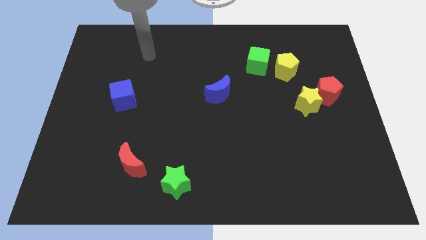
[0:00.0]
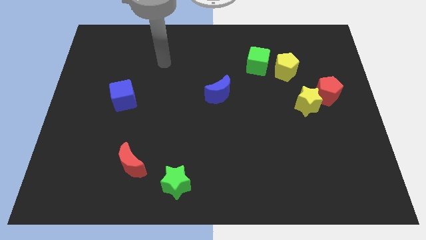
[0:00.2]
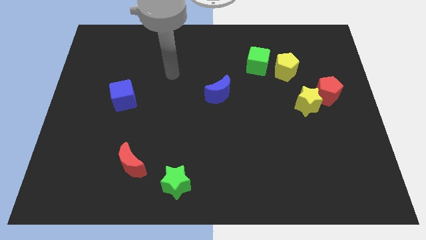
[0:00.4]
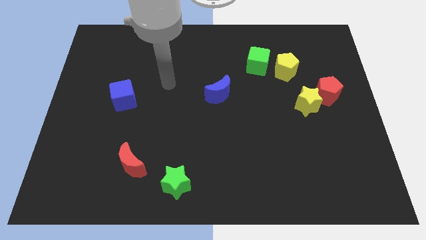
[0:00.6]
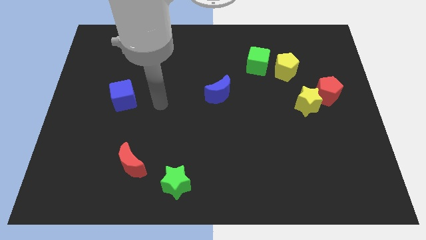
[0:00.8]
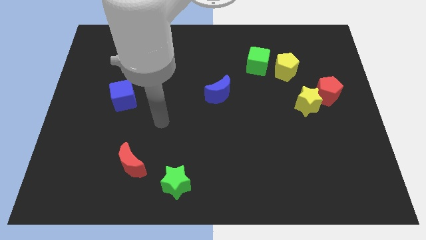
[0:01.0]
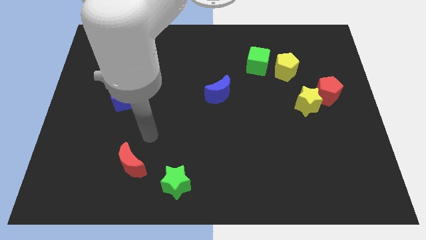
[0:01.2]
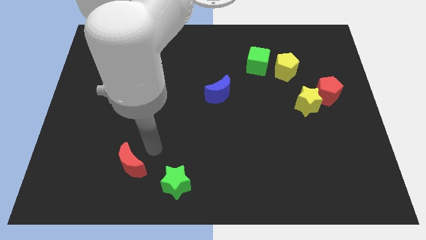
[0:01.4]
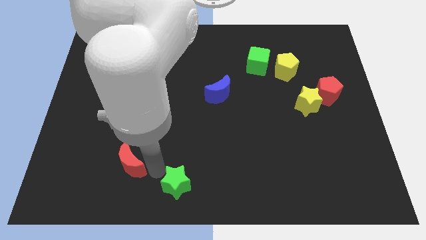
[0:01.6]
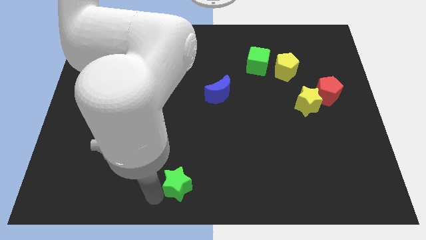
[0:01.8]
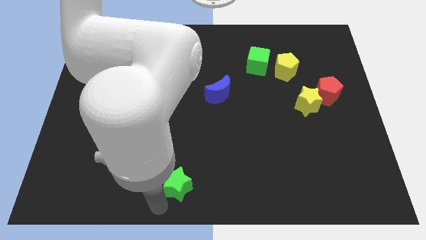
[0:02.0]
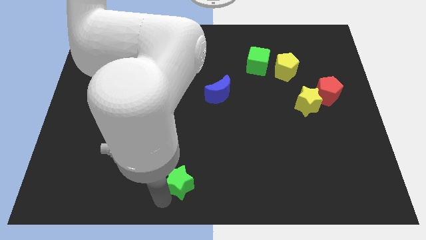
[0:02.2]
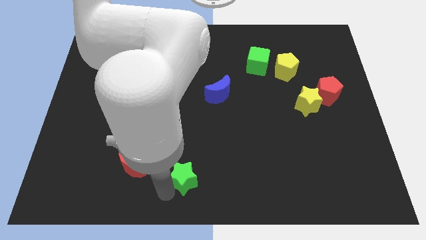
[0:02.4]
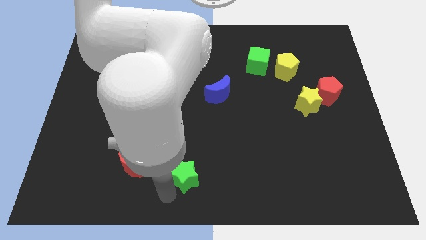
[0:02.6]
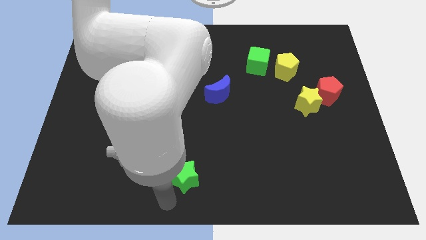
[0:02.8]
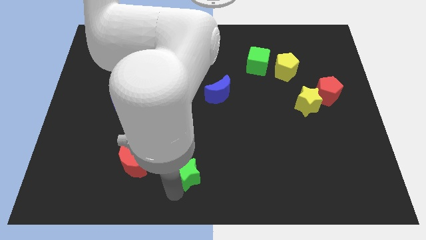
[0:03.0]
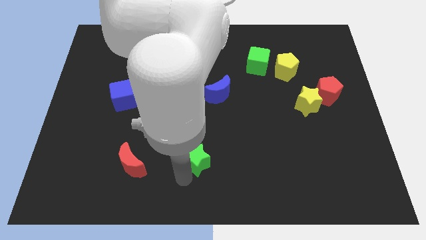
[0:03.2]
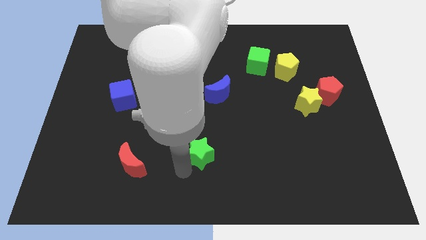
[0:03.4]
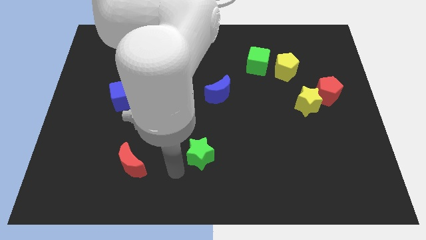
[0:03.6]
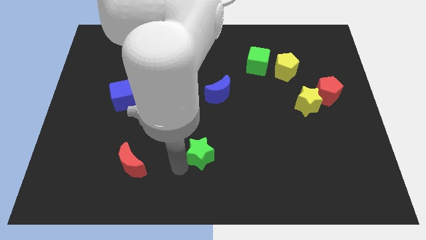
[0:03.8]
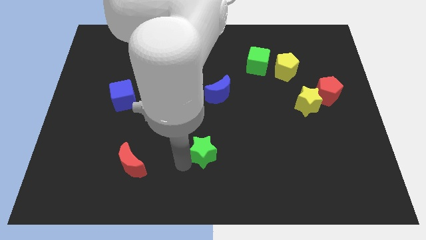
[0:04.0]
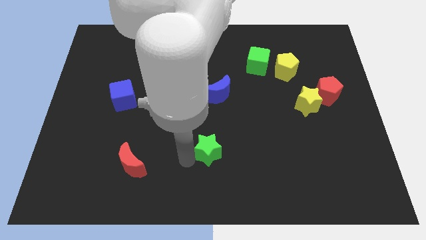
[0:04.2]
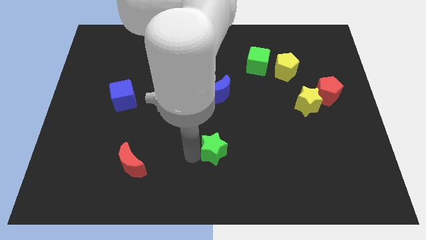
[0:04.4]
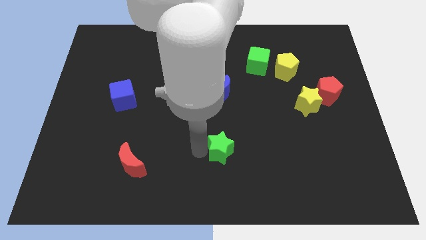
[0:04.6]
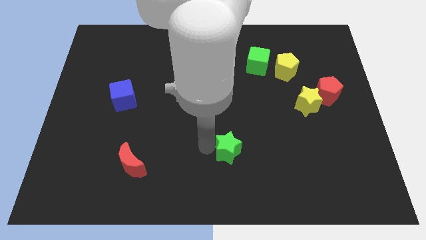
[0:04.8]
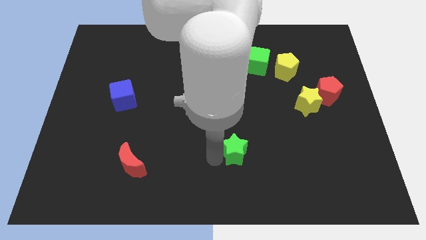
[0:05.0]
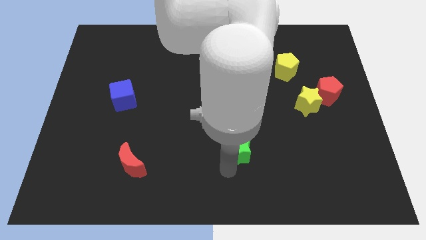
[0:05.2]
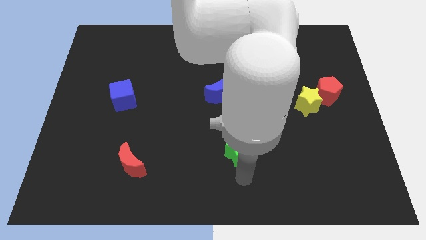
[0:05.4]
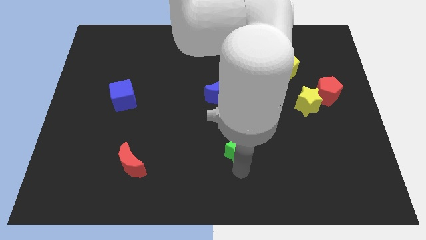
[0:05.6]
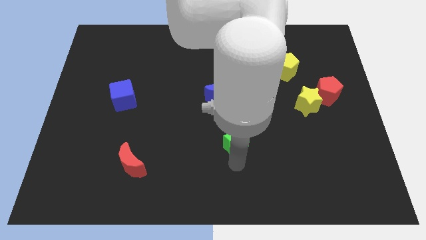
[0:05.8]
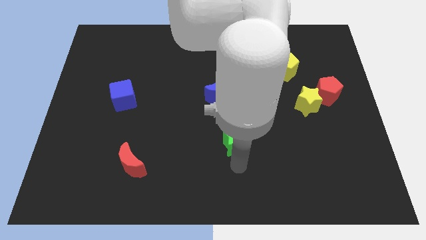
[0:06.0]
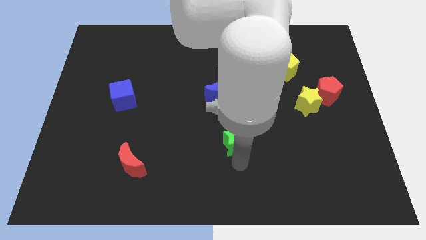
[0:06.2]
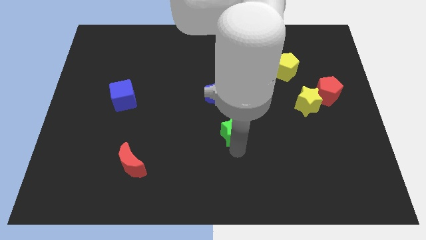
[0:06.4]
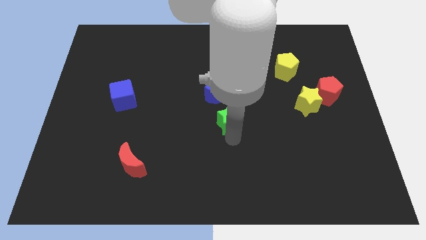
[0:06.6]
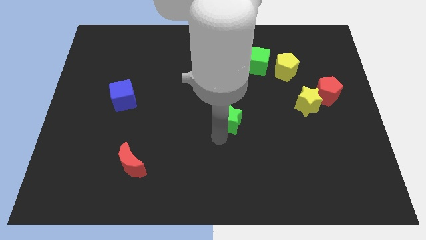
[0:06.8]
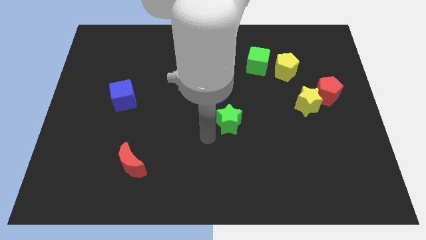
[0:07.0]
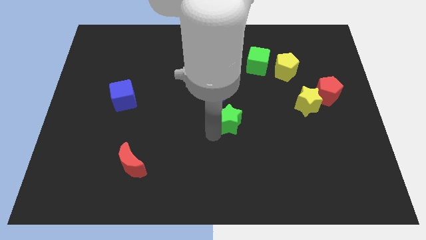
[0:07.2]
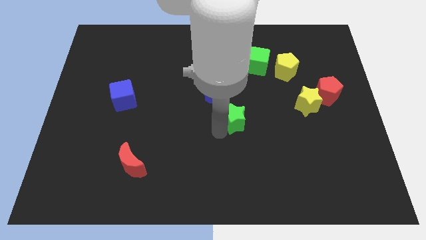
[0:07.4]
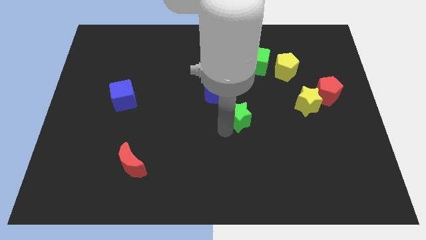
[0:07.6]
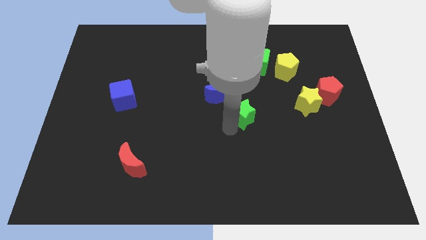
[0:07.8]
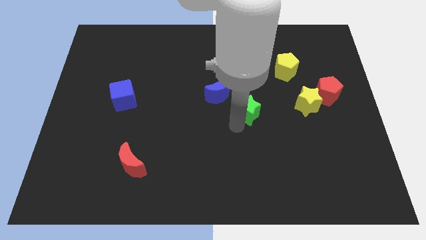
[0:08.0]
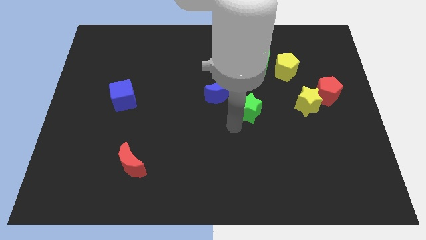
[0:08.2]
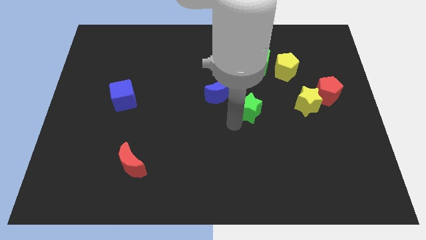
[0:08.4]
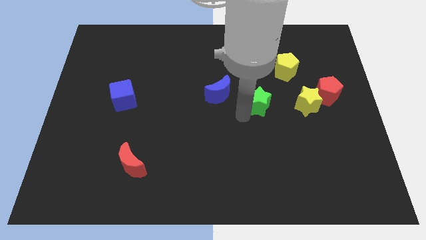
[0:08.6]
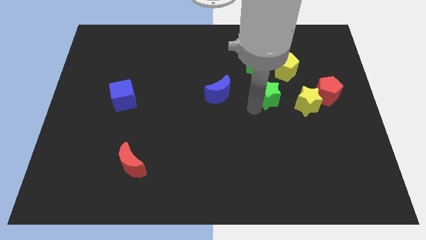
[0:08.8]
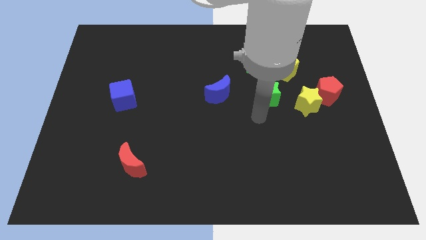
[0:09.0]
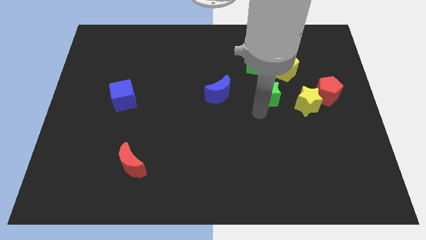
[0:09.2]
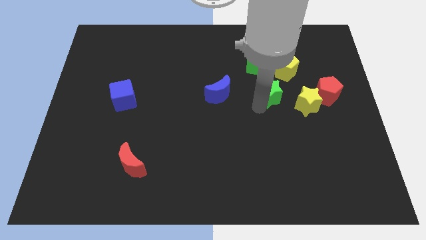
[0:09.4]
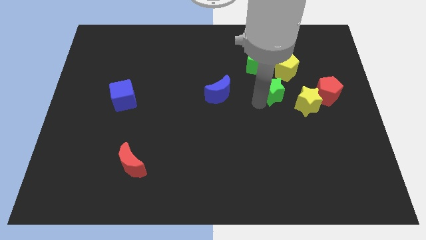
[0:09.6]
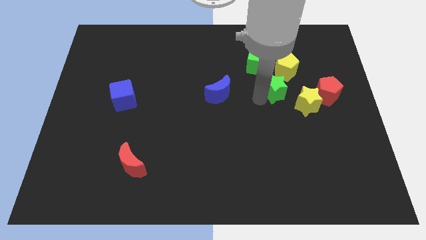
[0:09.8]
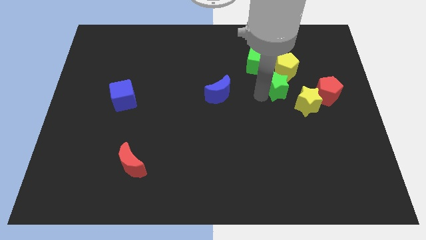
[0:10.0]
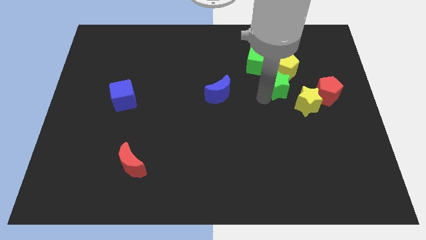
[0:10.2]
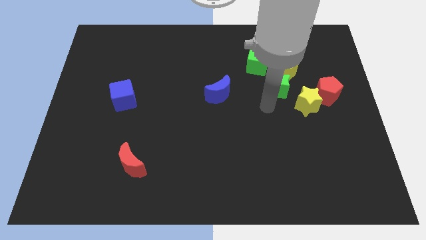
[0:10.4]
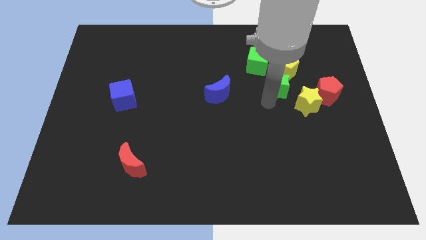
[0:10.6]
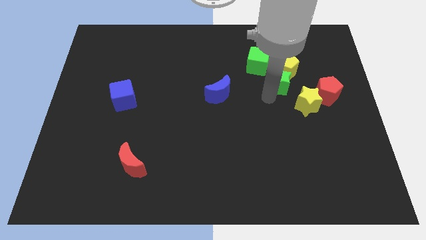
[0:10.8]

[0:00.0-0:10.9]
slide the green star to the yellow pentagon

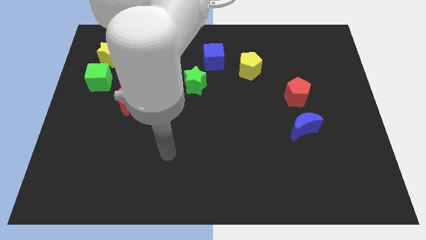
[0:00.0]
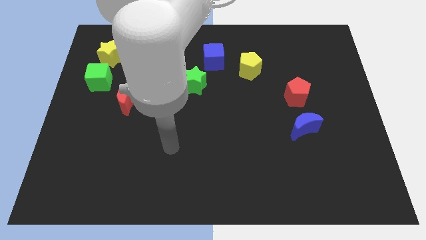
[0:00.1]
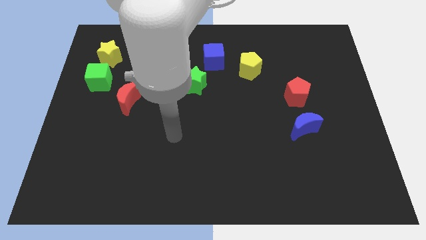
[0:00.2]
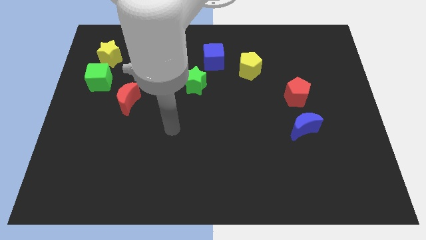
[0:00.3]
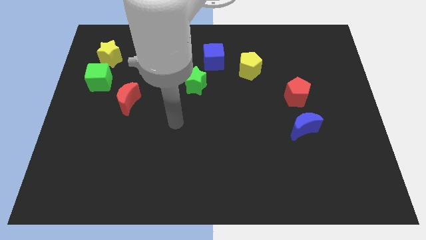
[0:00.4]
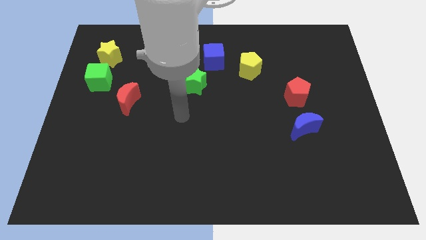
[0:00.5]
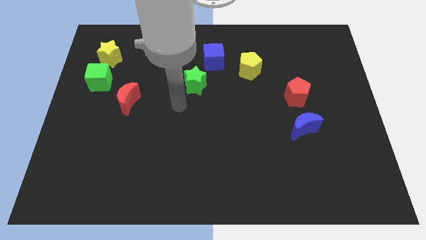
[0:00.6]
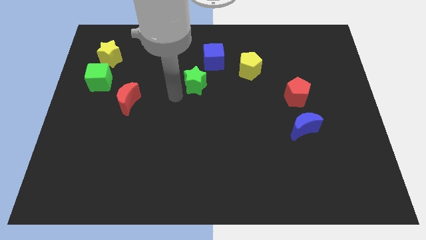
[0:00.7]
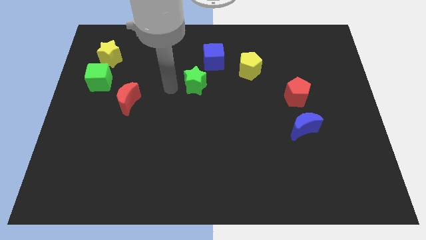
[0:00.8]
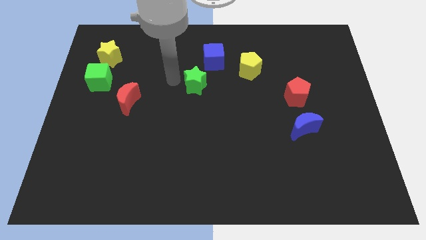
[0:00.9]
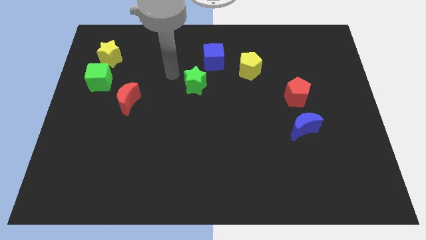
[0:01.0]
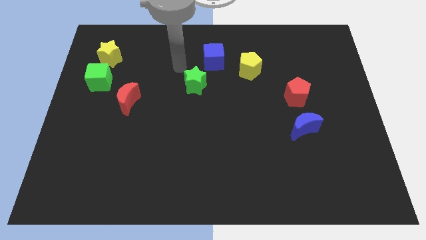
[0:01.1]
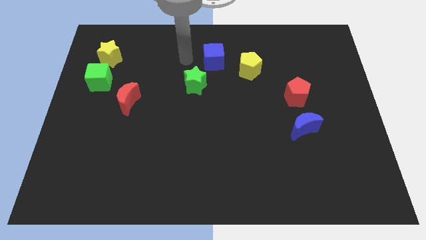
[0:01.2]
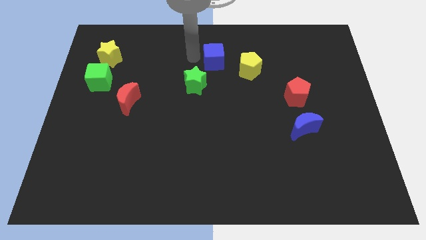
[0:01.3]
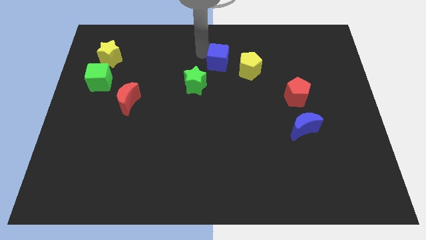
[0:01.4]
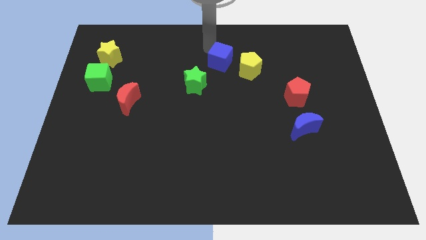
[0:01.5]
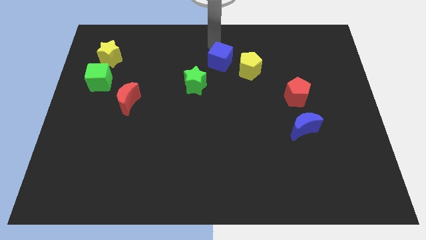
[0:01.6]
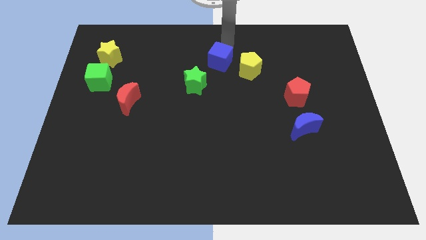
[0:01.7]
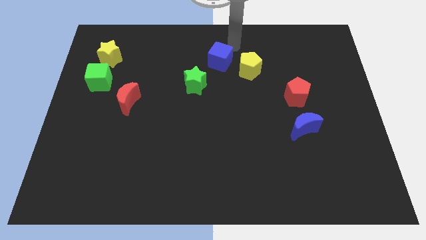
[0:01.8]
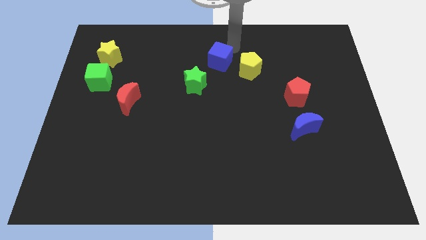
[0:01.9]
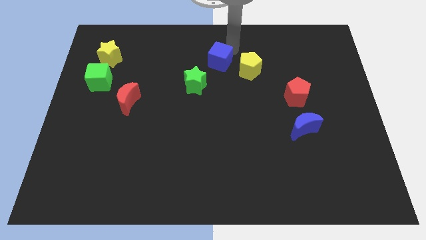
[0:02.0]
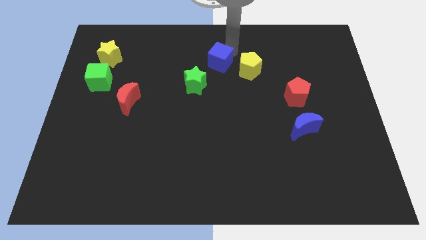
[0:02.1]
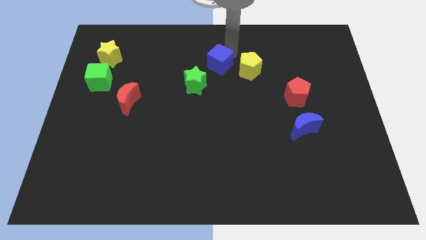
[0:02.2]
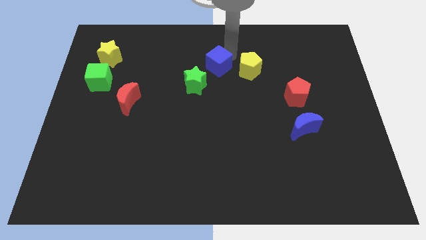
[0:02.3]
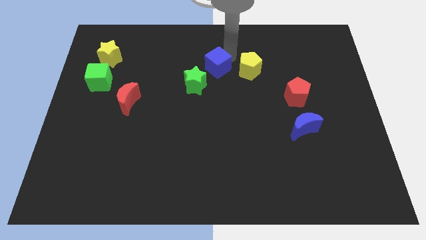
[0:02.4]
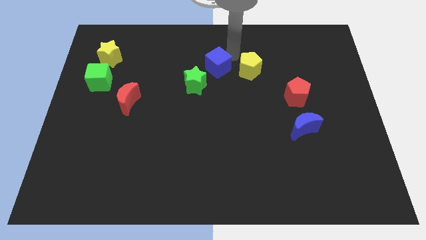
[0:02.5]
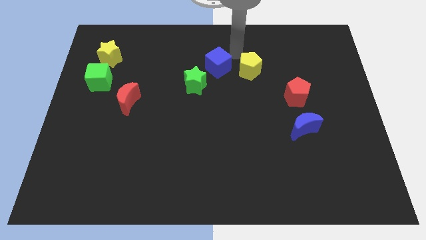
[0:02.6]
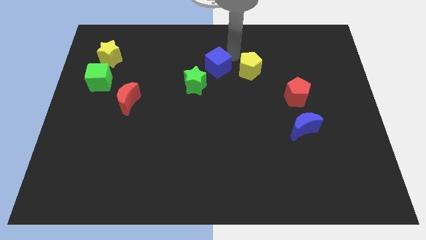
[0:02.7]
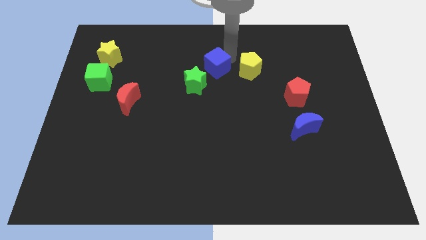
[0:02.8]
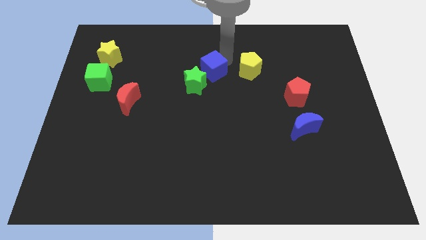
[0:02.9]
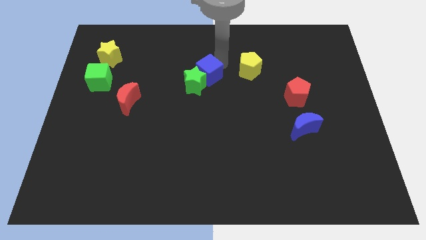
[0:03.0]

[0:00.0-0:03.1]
put the blue cube to the green star
